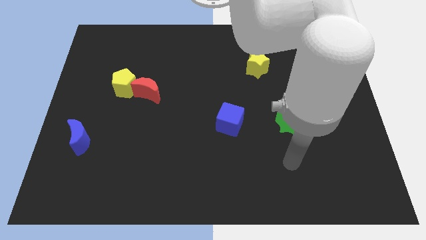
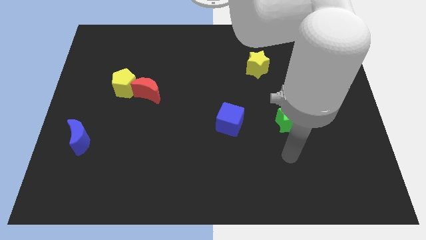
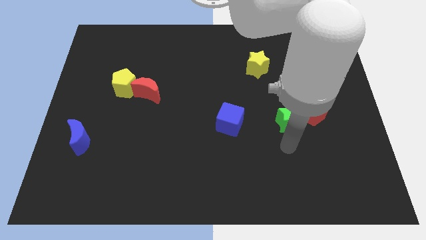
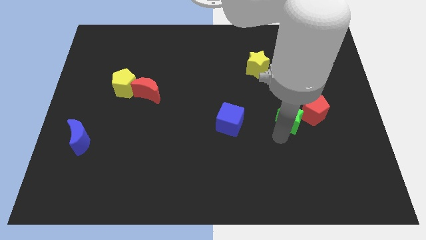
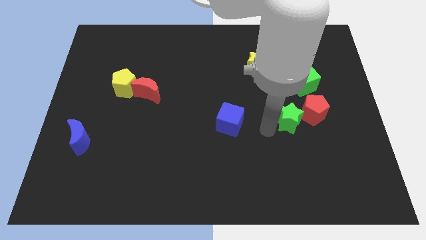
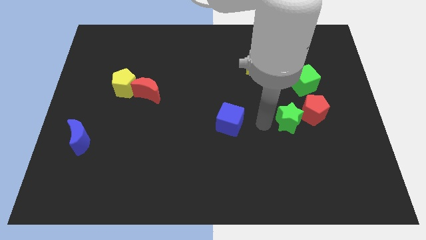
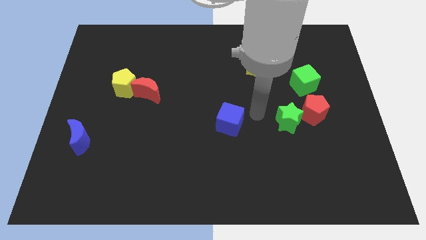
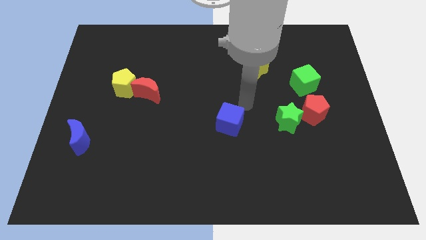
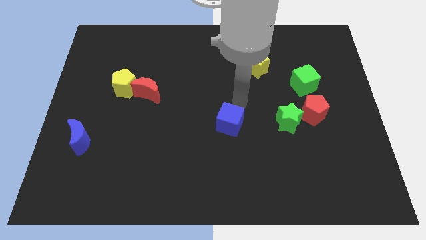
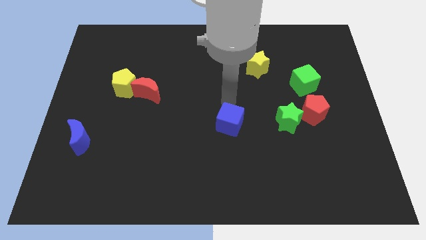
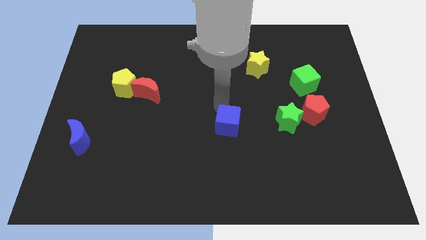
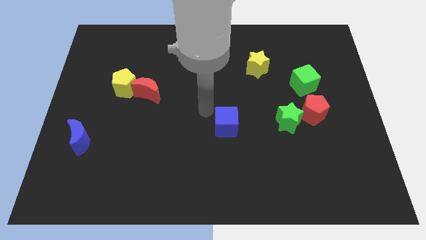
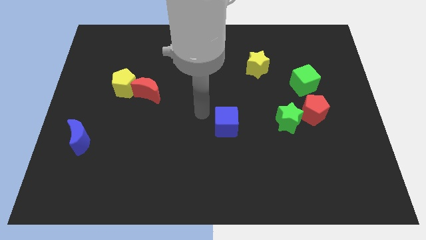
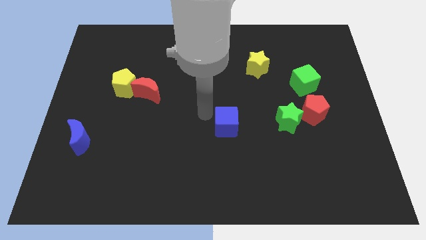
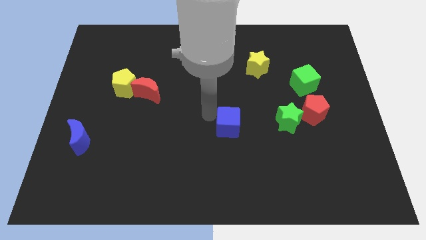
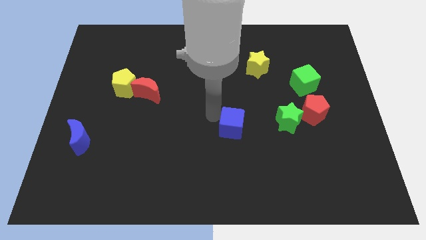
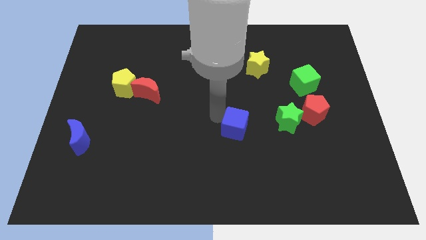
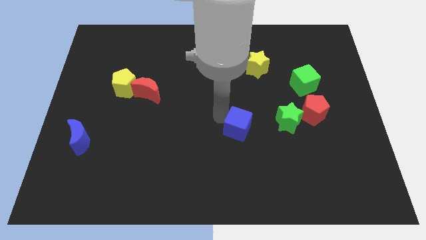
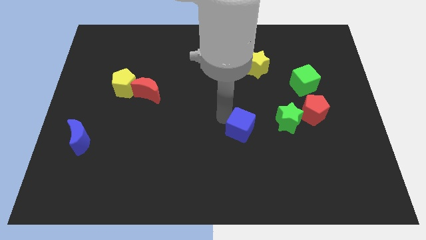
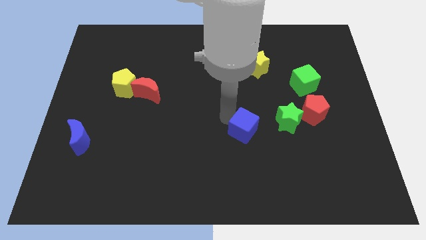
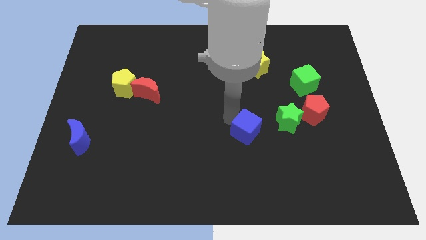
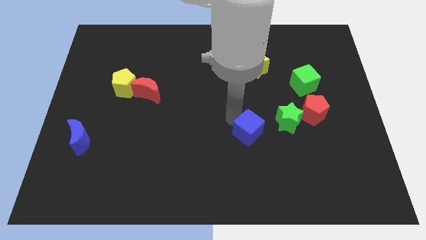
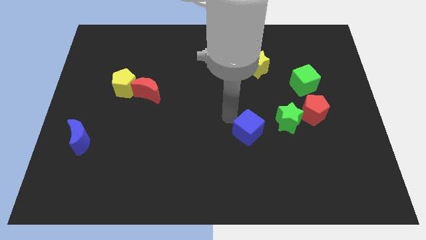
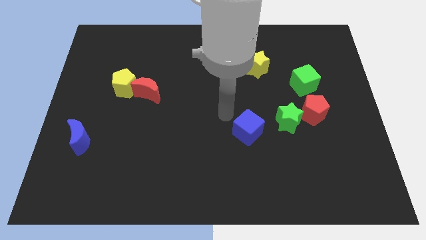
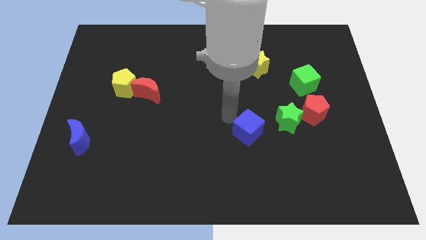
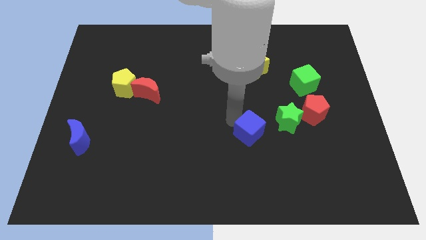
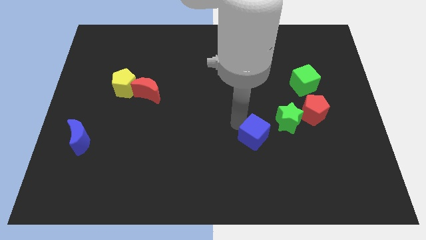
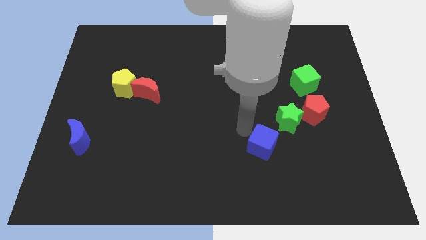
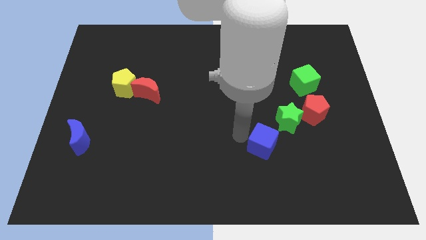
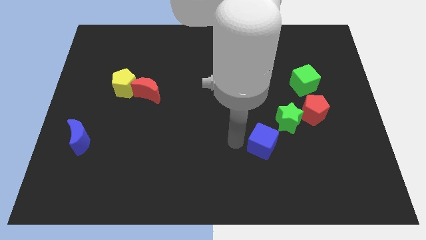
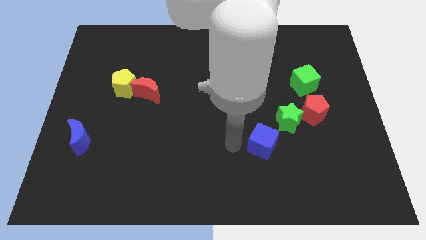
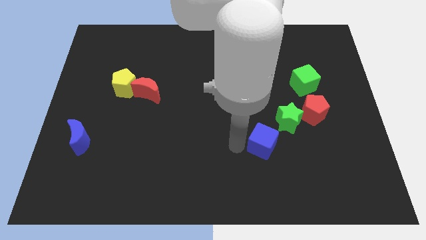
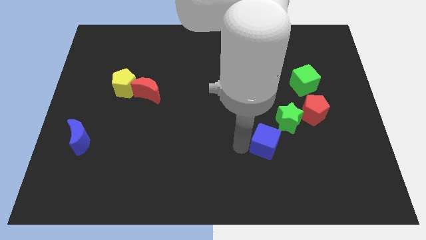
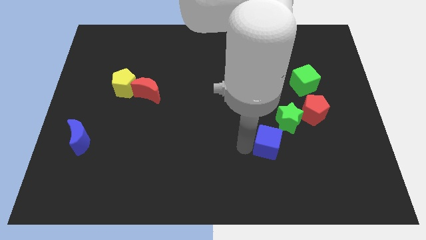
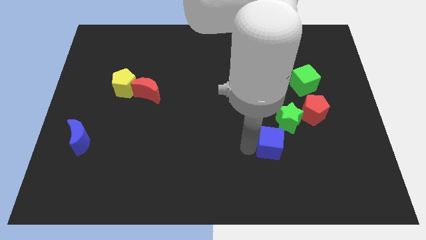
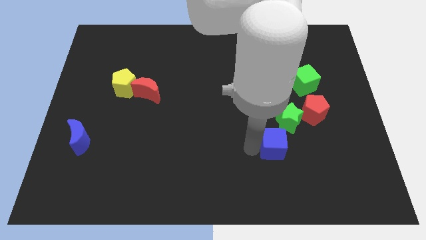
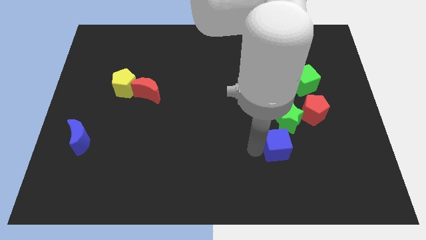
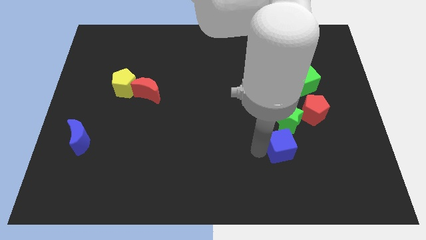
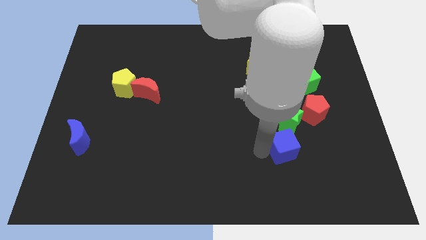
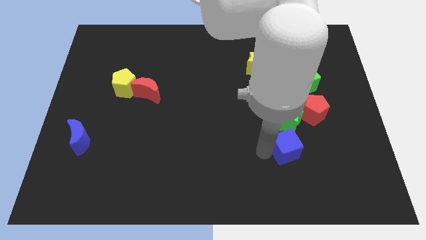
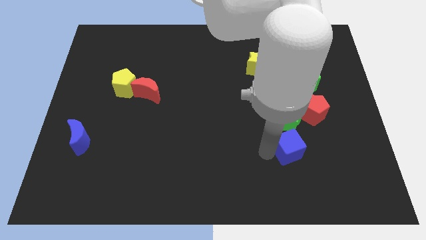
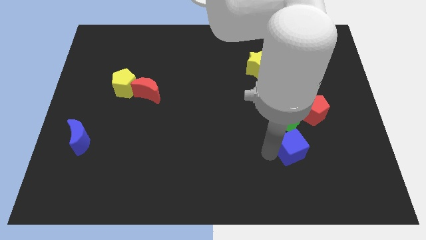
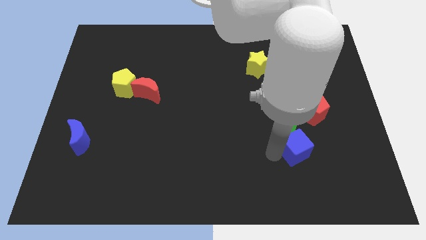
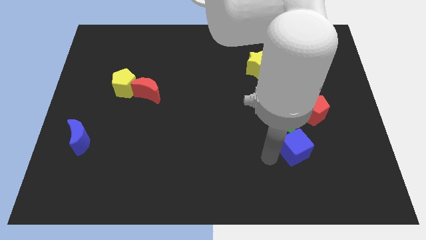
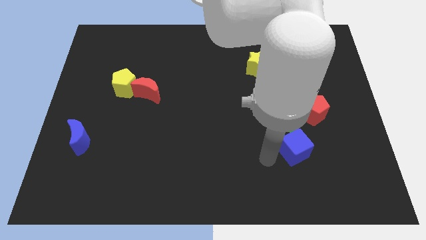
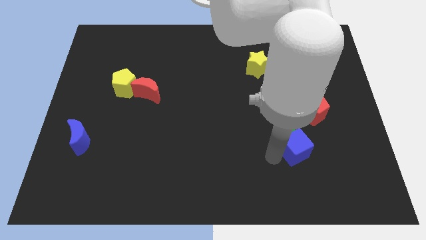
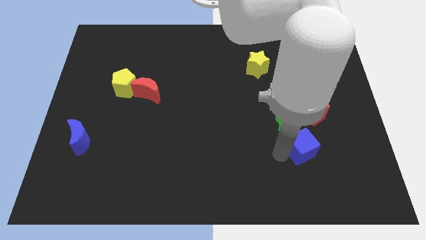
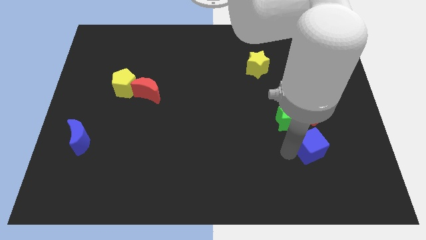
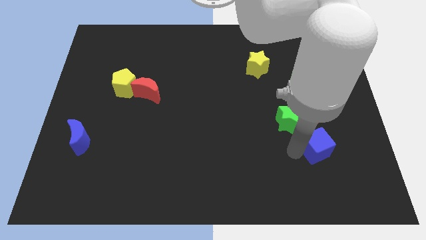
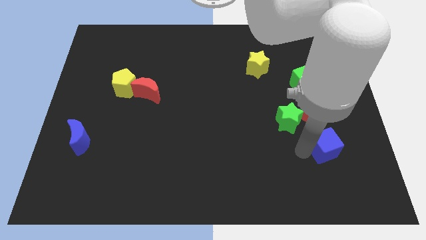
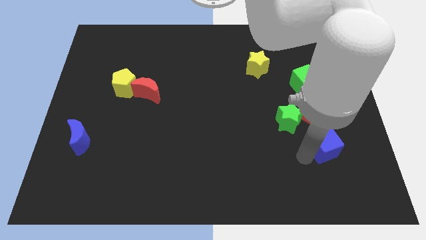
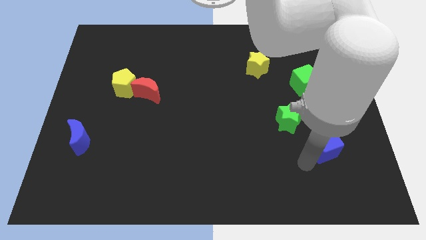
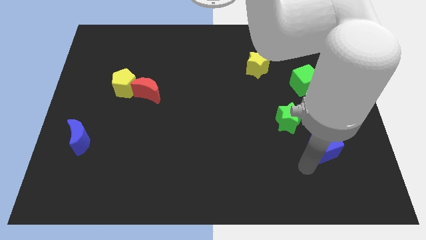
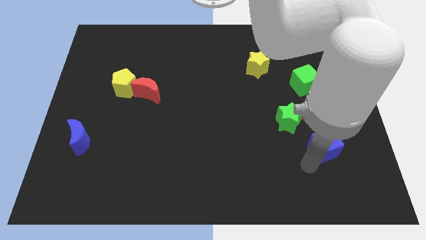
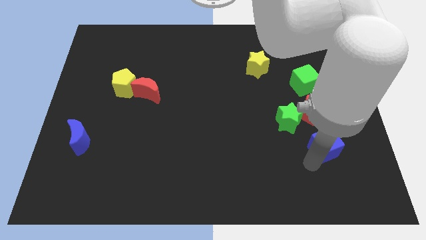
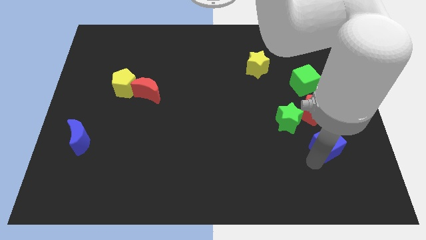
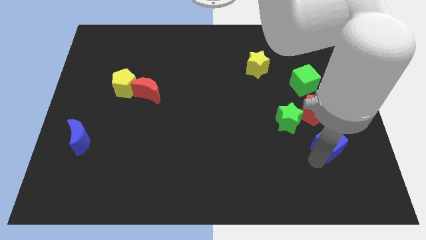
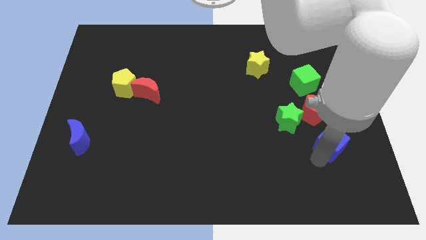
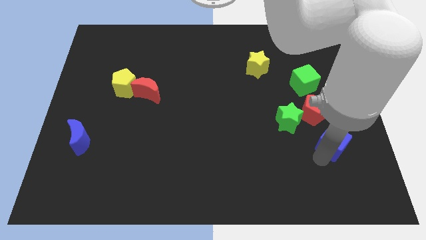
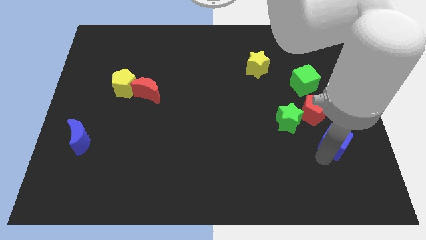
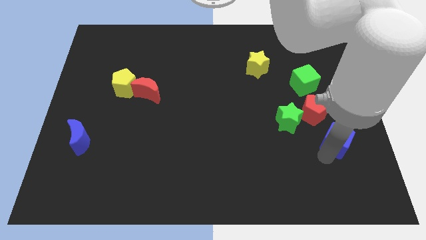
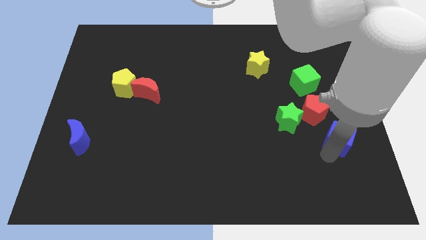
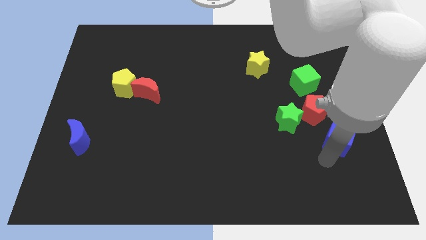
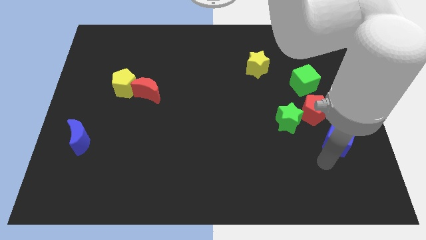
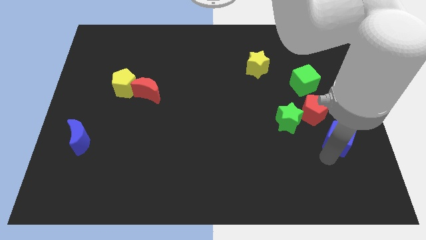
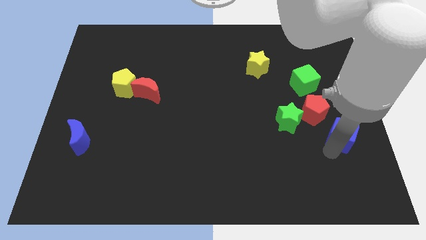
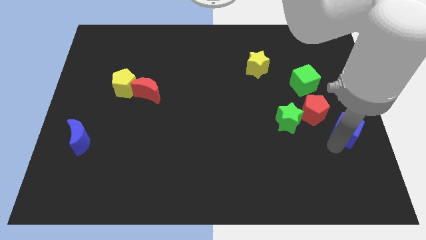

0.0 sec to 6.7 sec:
move the blue cube to the right side of the board
